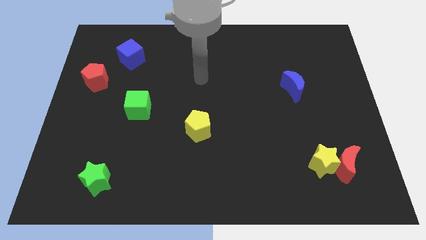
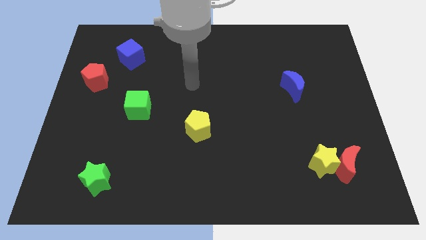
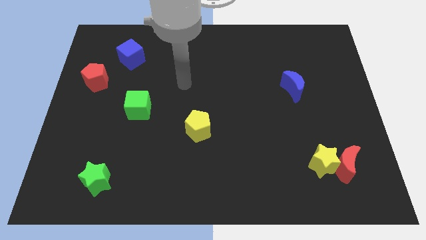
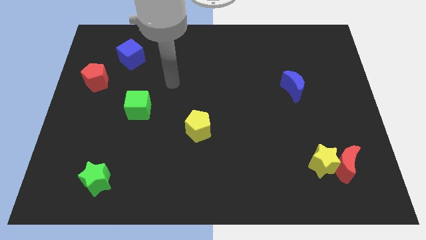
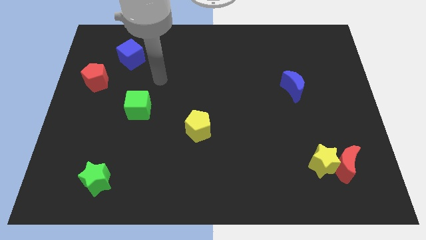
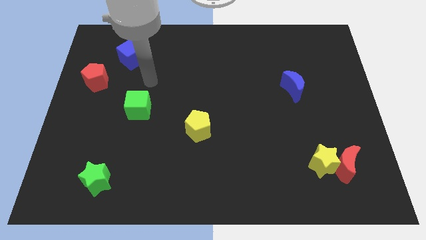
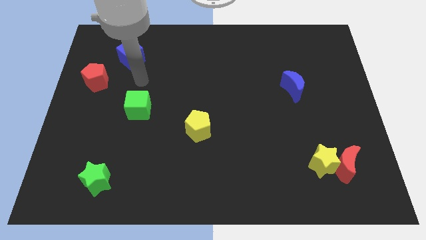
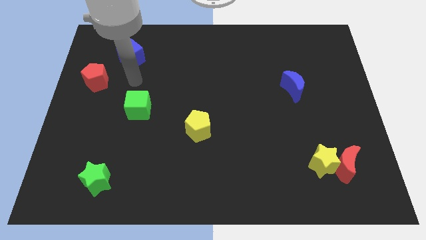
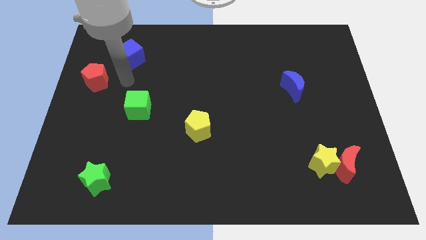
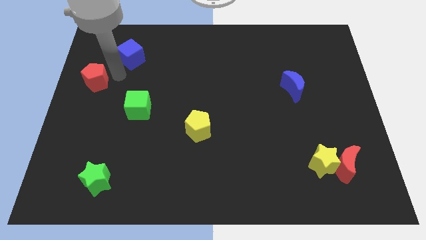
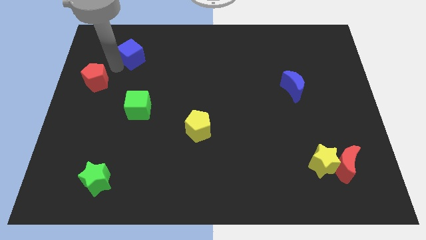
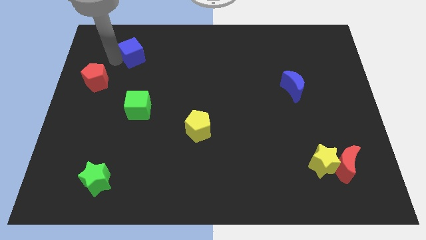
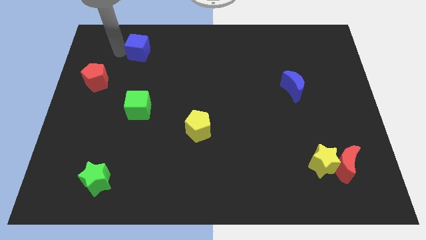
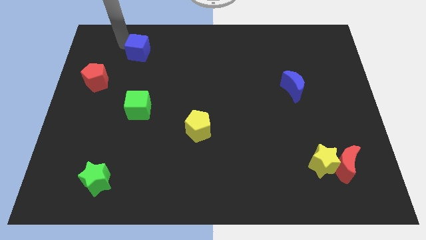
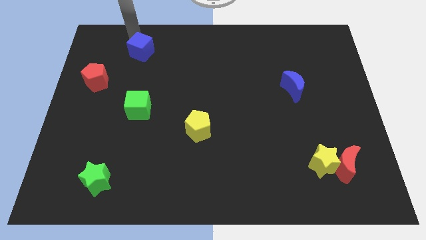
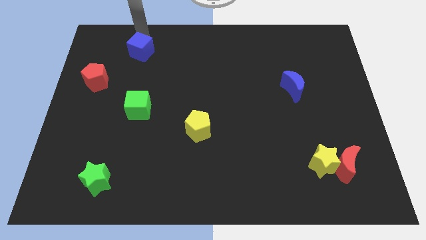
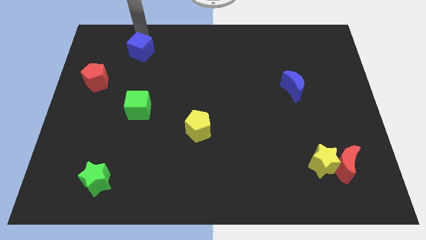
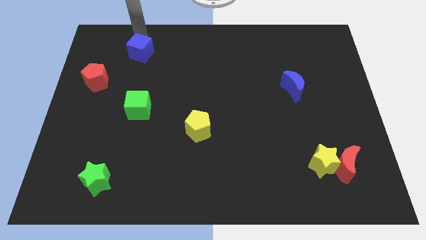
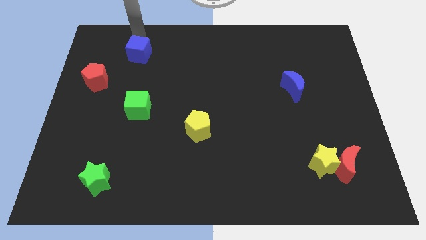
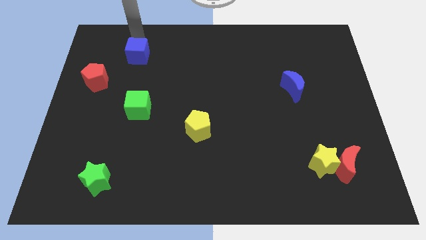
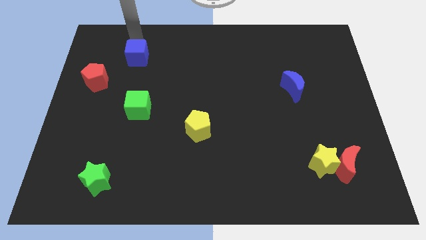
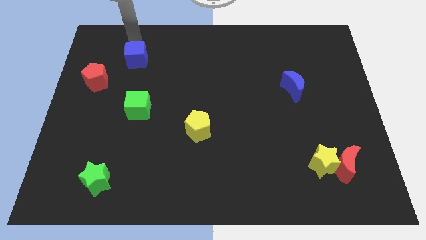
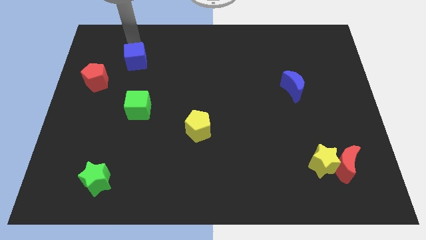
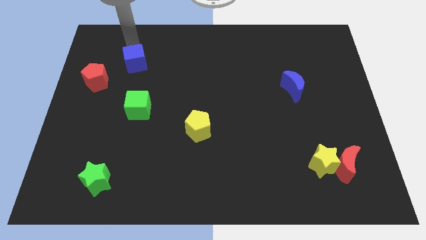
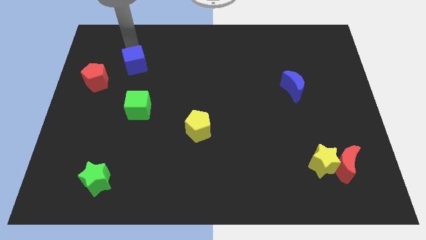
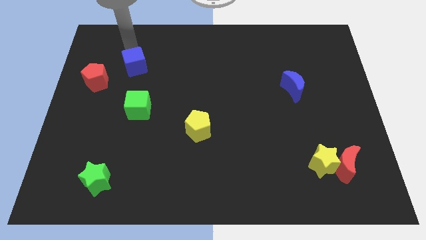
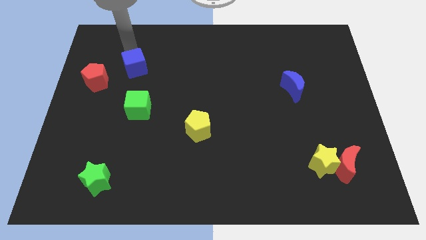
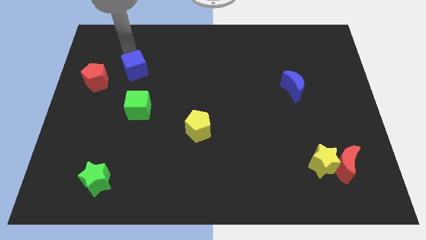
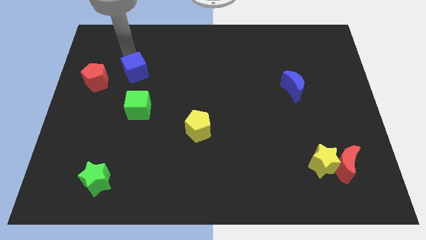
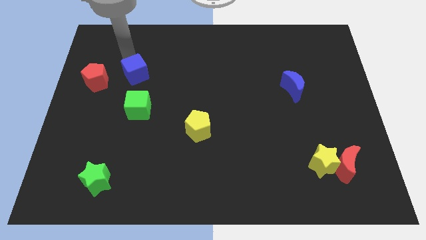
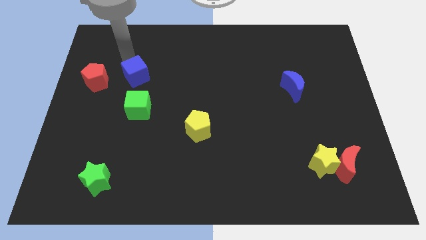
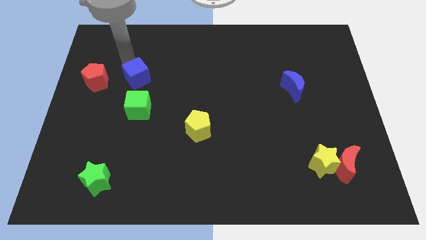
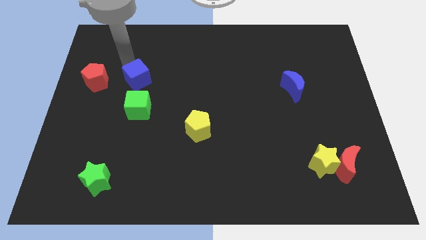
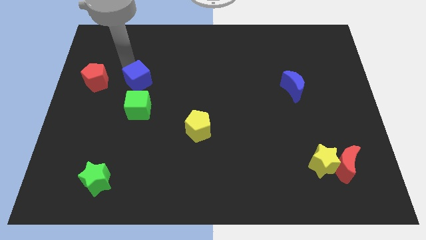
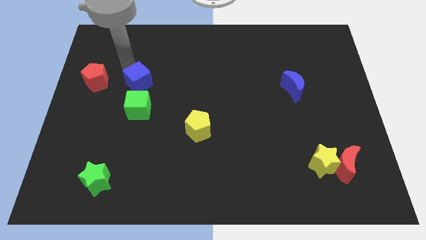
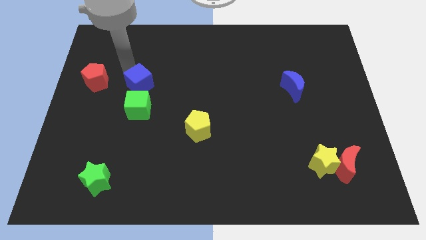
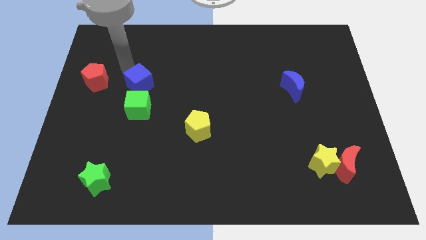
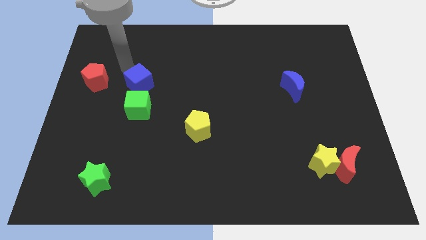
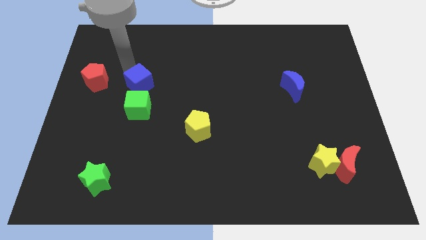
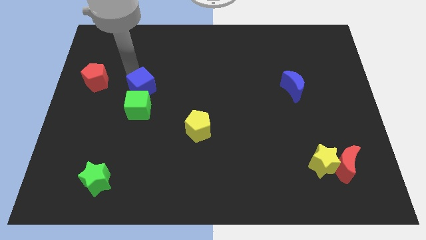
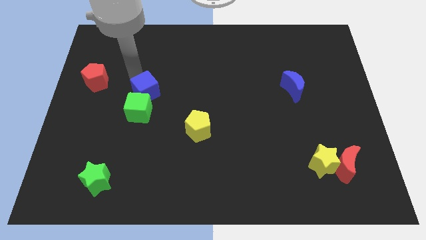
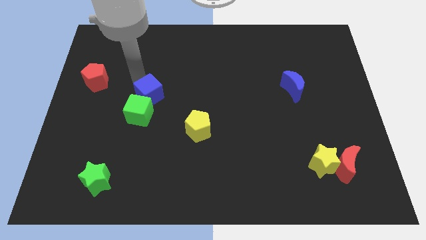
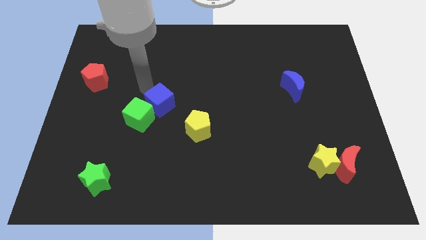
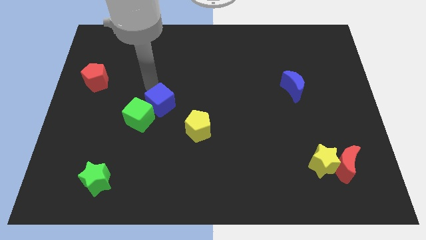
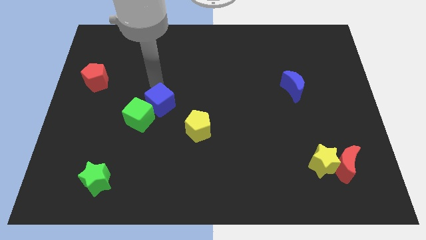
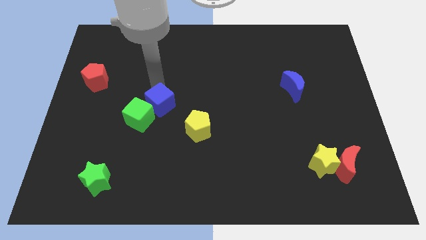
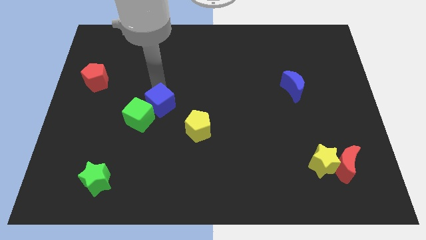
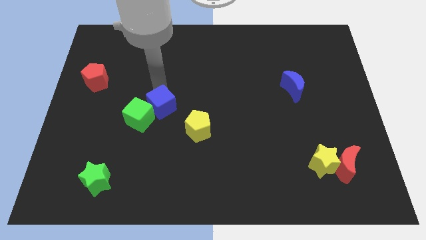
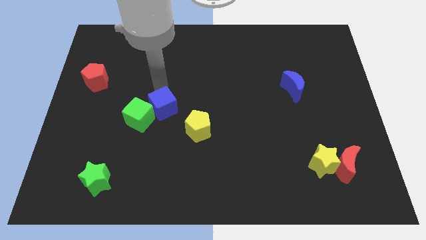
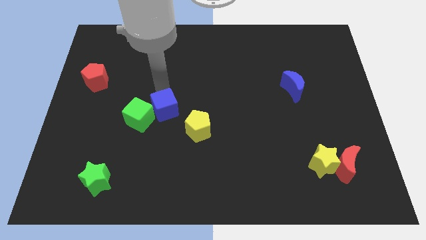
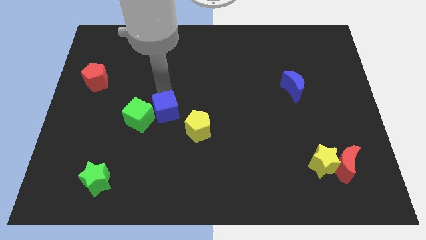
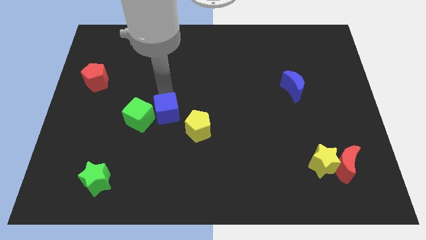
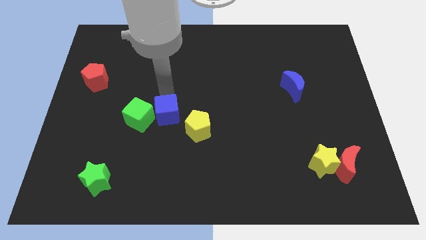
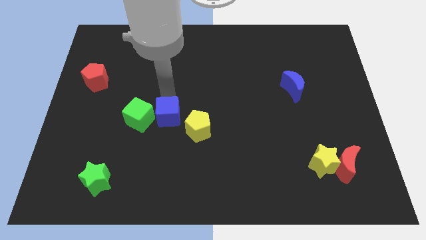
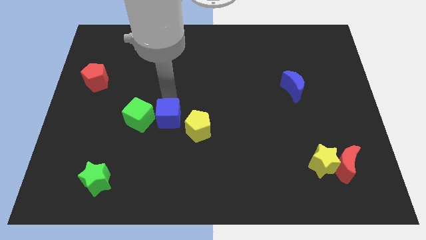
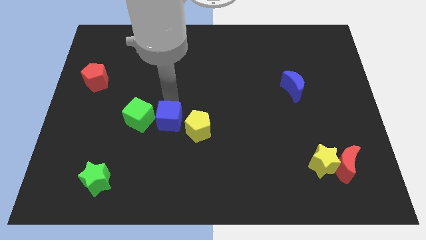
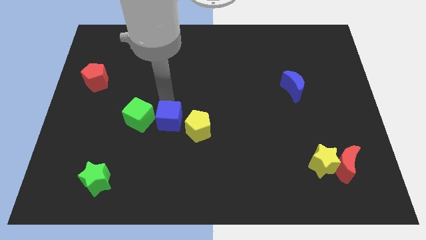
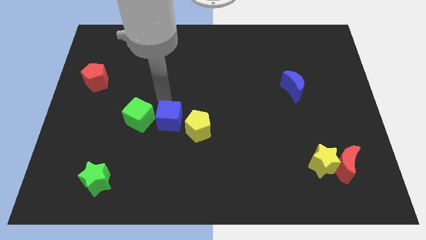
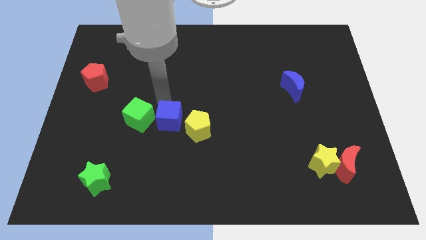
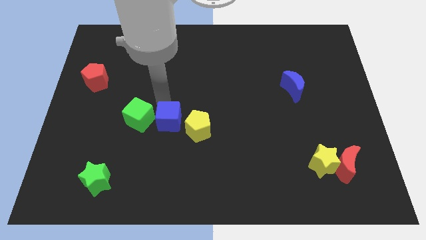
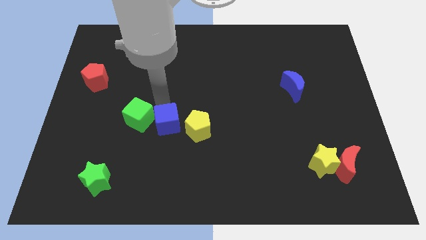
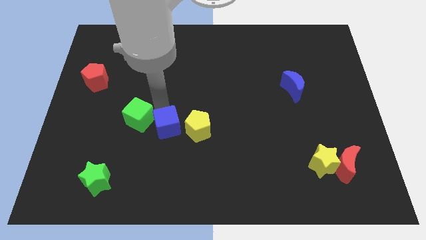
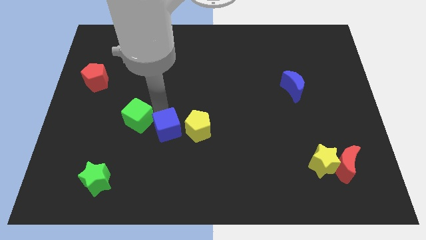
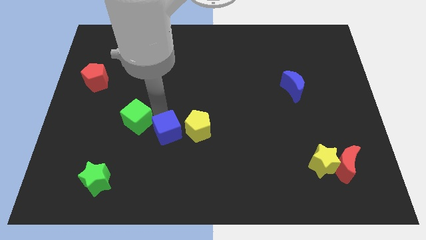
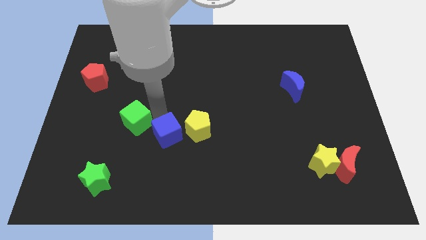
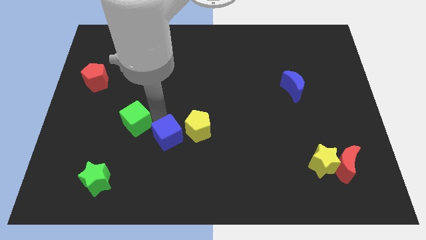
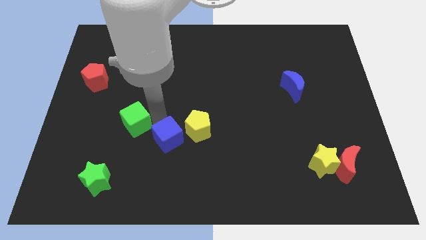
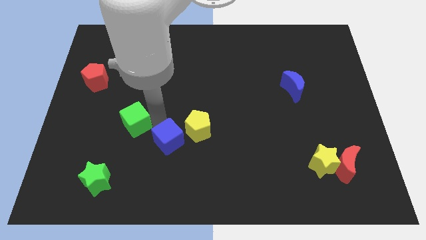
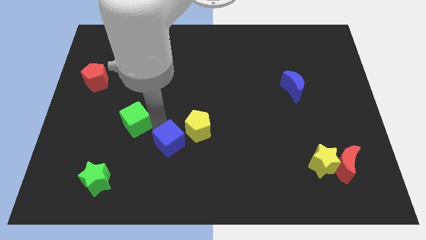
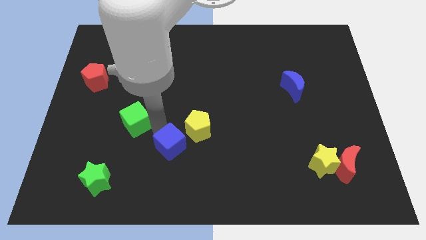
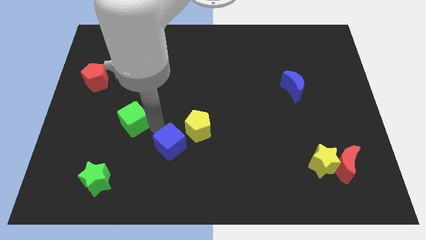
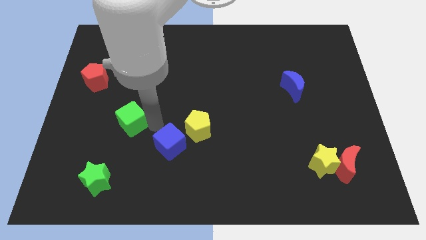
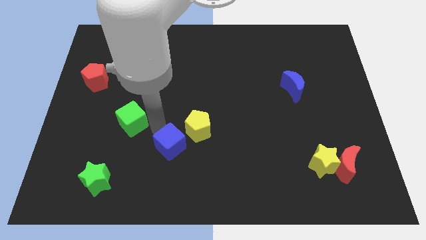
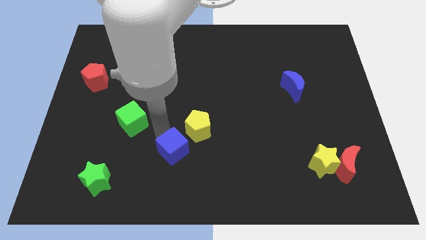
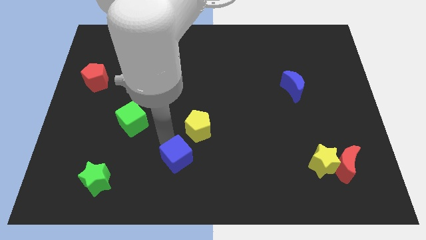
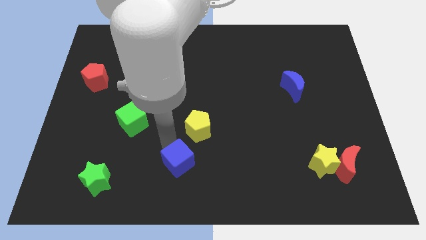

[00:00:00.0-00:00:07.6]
push the blue cube to the bottom side
